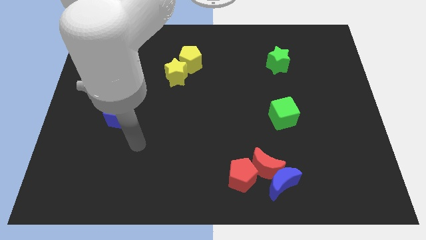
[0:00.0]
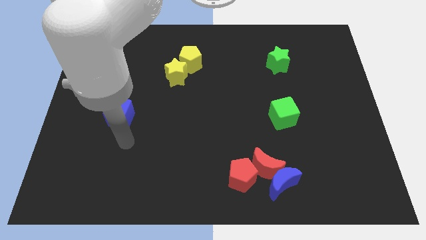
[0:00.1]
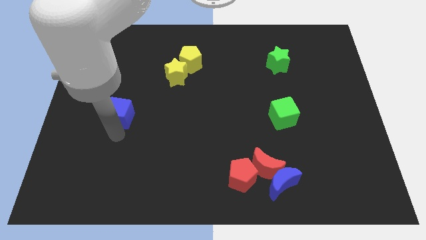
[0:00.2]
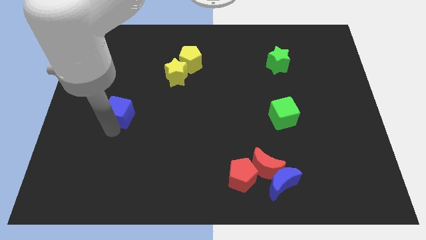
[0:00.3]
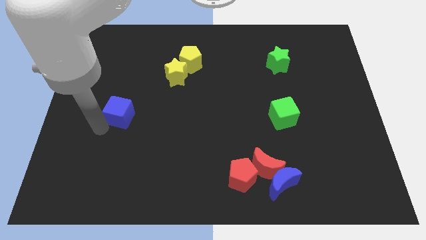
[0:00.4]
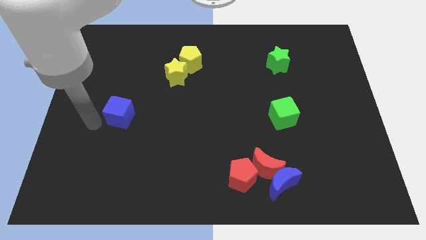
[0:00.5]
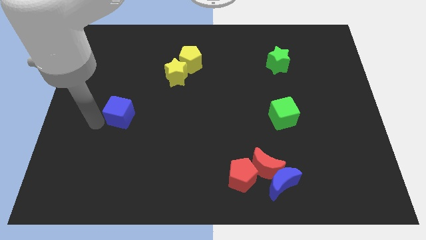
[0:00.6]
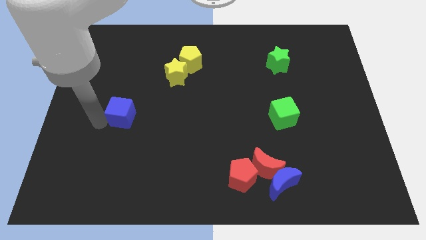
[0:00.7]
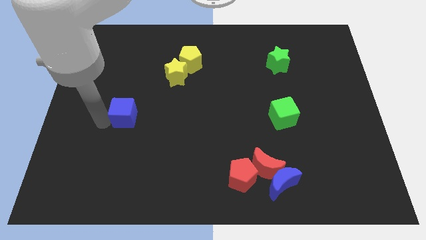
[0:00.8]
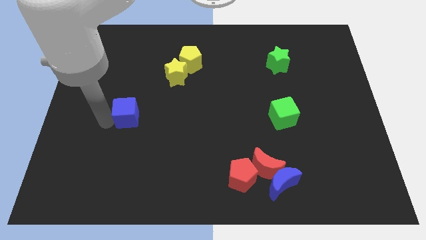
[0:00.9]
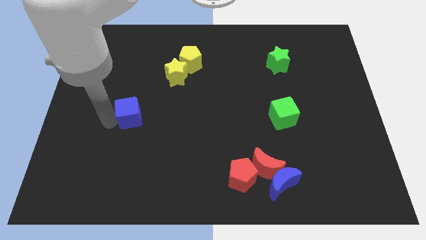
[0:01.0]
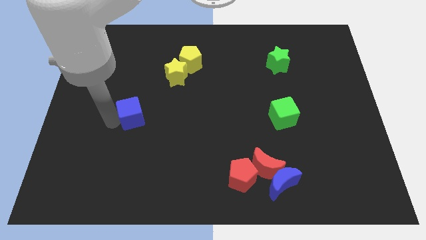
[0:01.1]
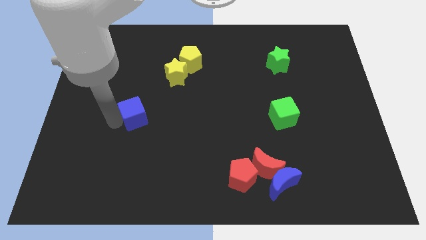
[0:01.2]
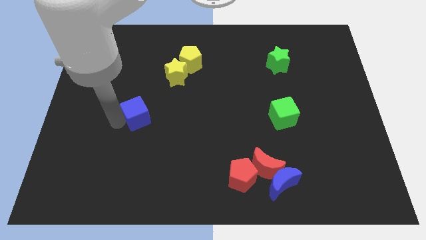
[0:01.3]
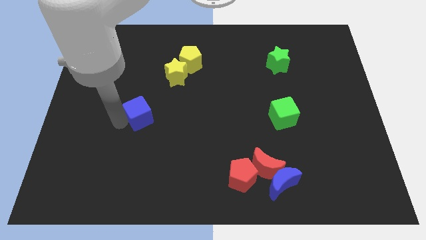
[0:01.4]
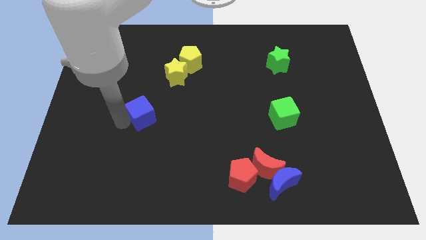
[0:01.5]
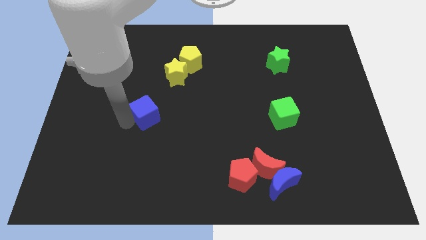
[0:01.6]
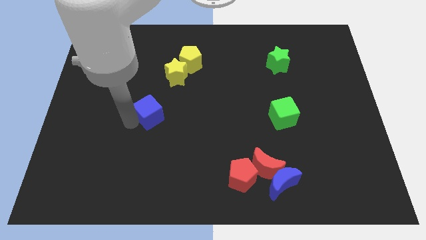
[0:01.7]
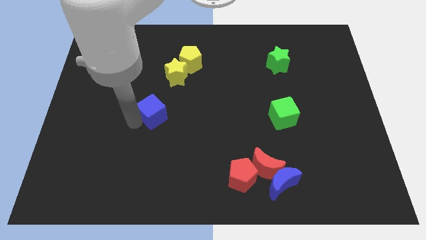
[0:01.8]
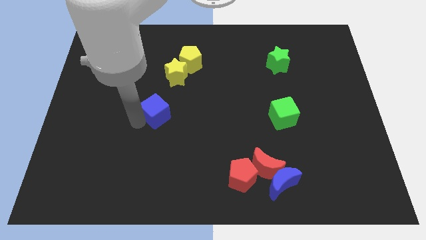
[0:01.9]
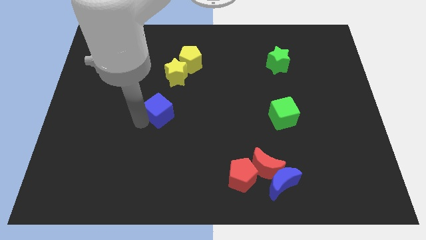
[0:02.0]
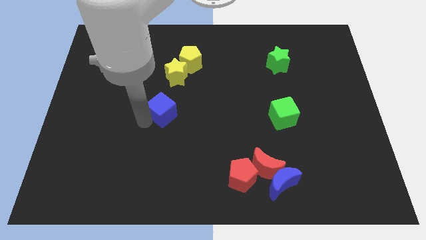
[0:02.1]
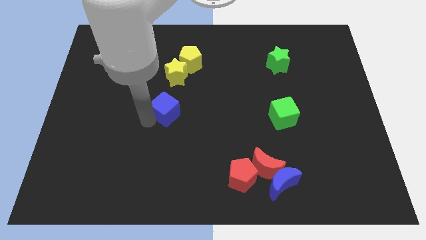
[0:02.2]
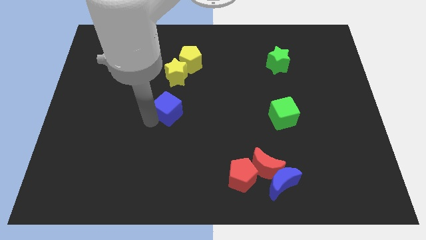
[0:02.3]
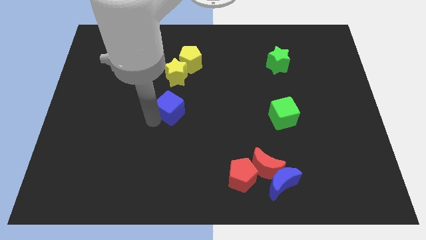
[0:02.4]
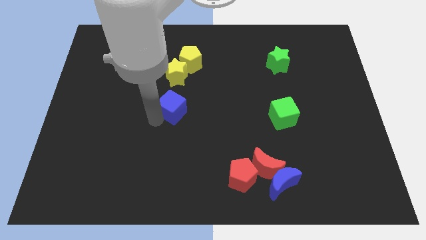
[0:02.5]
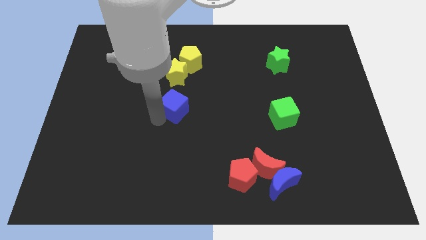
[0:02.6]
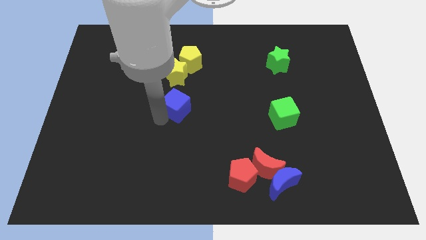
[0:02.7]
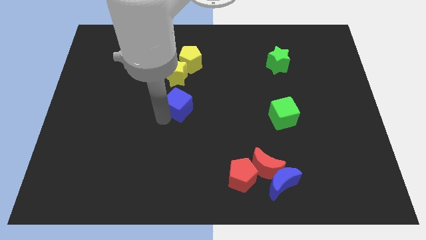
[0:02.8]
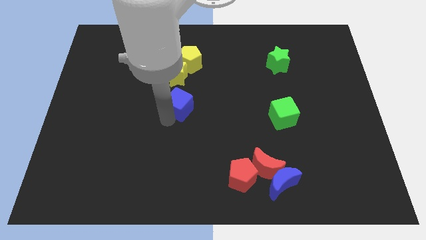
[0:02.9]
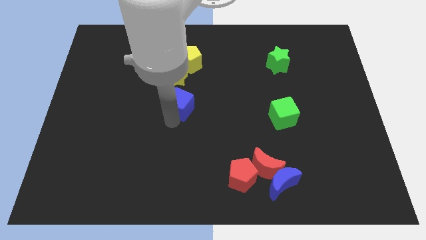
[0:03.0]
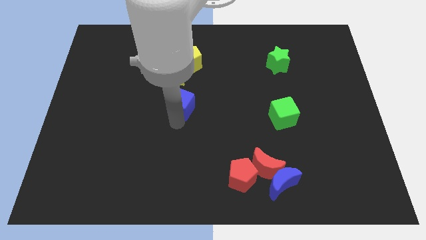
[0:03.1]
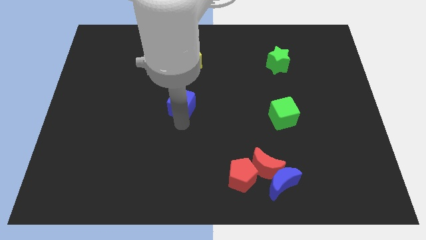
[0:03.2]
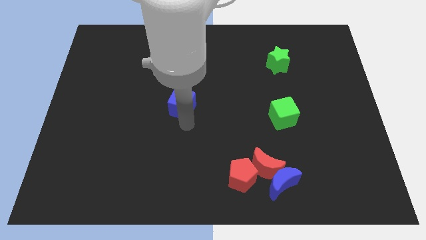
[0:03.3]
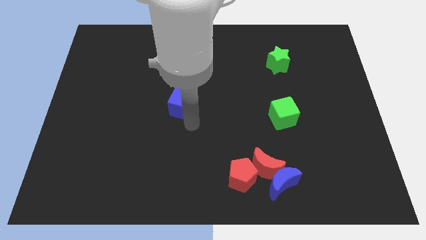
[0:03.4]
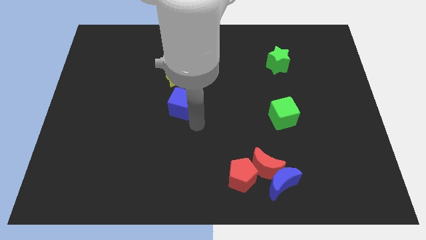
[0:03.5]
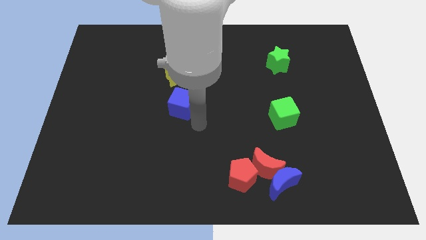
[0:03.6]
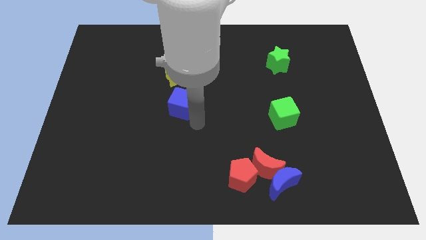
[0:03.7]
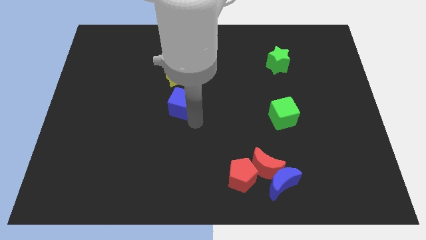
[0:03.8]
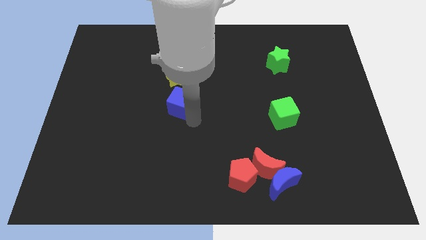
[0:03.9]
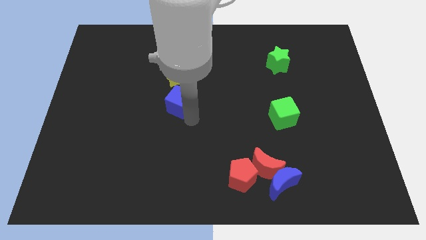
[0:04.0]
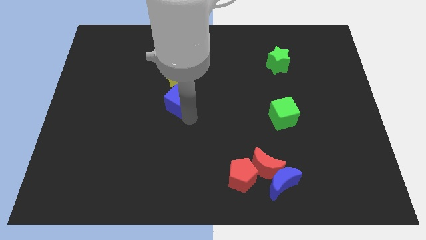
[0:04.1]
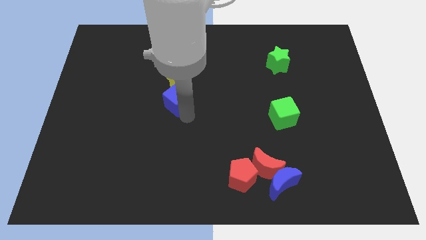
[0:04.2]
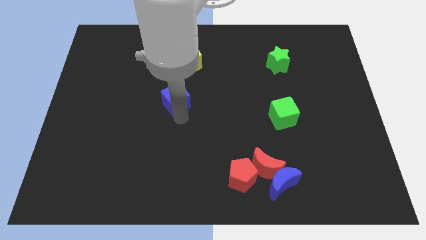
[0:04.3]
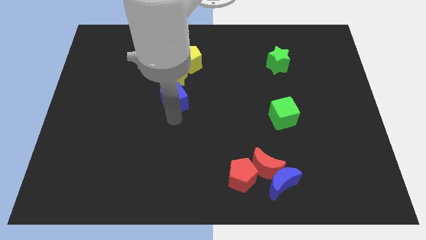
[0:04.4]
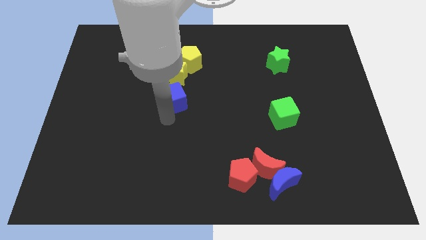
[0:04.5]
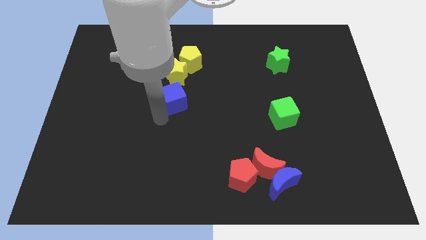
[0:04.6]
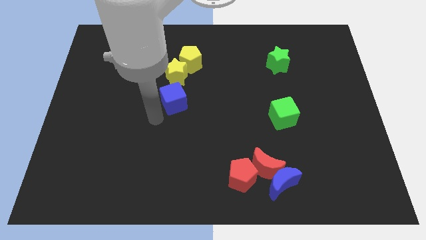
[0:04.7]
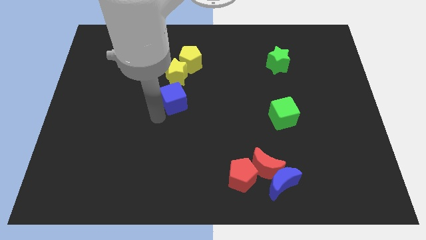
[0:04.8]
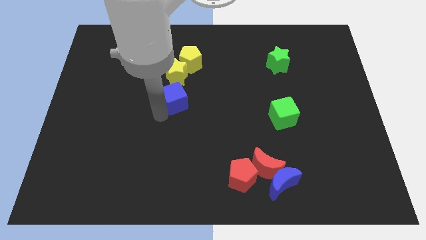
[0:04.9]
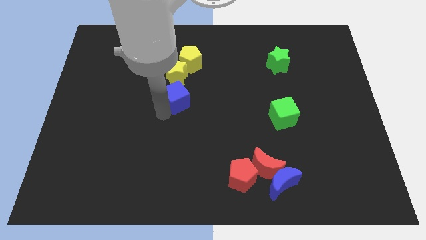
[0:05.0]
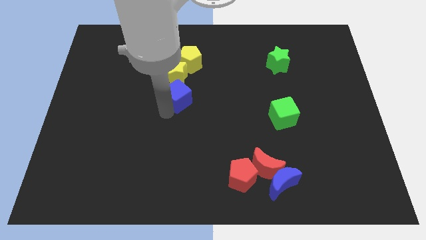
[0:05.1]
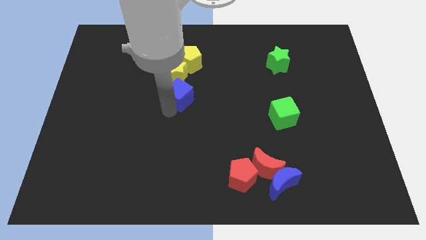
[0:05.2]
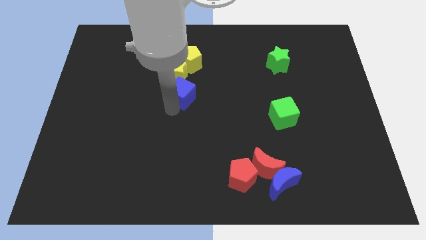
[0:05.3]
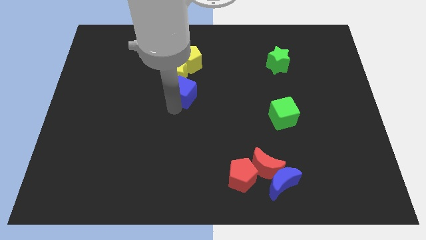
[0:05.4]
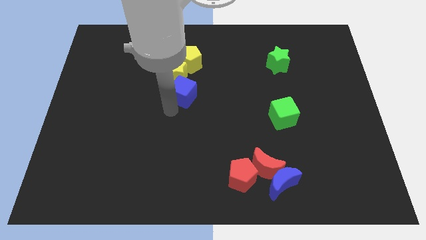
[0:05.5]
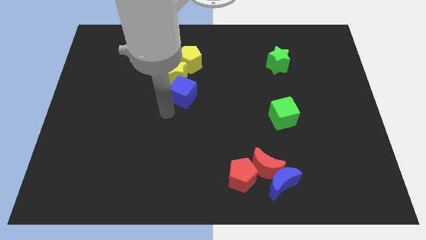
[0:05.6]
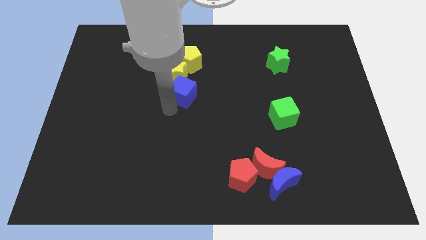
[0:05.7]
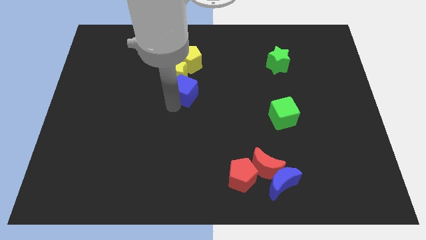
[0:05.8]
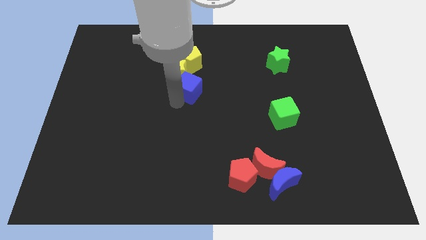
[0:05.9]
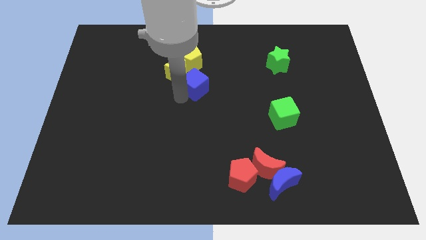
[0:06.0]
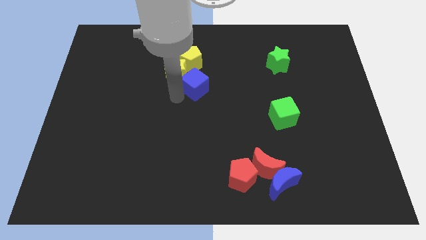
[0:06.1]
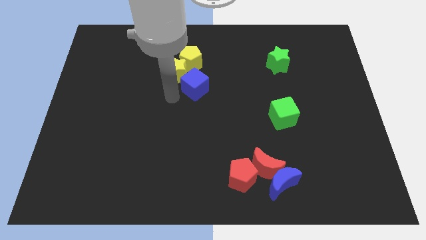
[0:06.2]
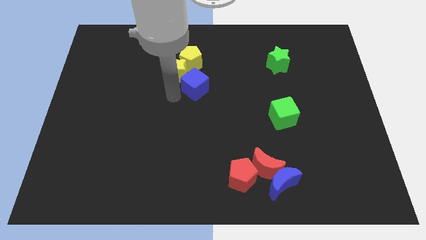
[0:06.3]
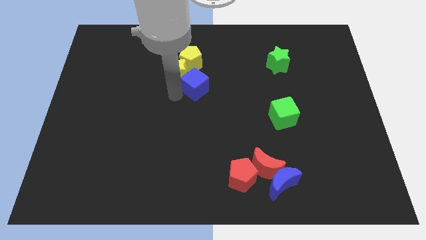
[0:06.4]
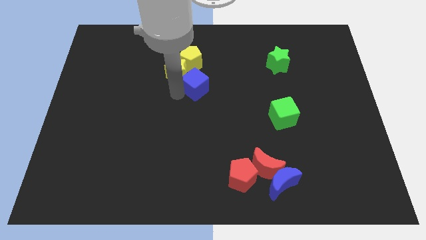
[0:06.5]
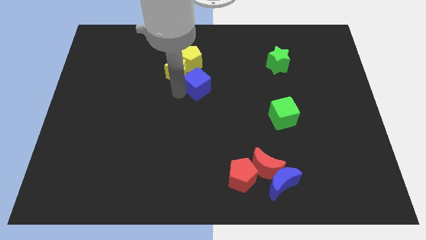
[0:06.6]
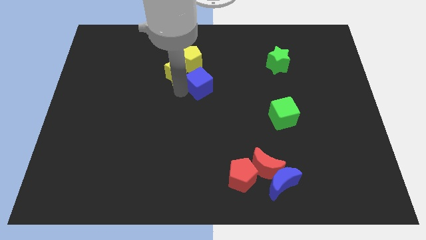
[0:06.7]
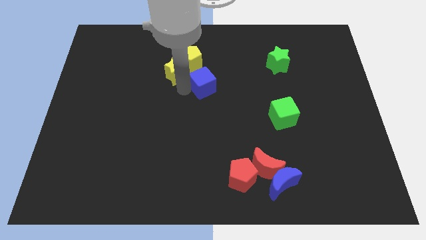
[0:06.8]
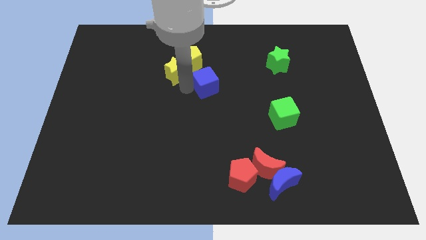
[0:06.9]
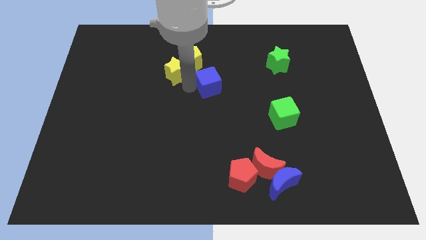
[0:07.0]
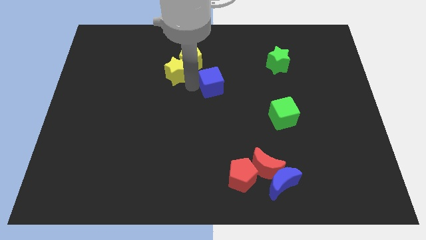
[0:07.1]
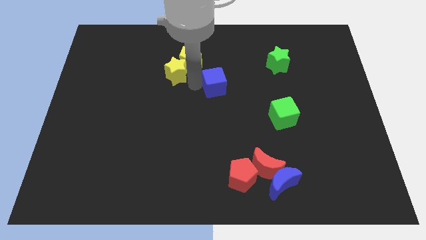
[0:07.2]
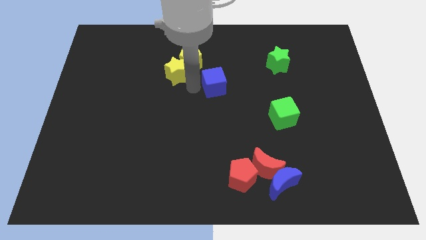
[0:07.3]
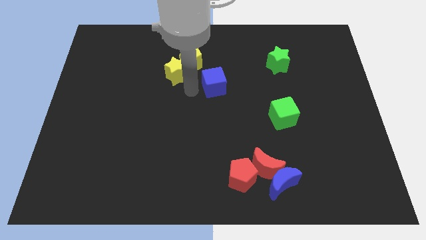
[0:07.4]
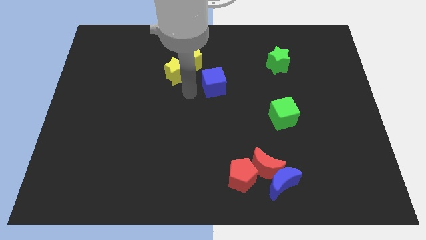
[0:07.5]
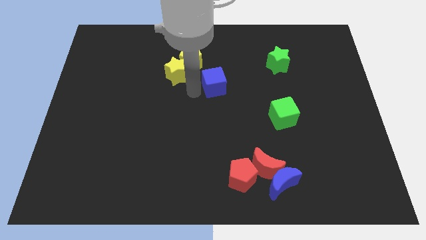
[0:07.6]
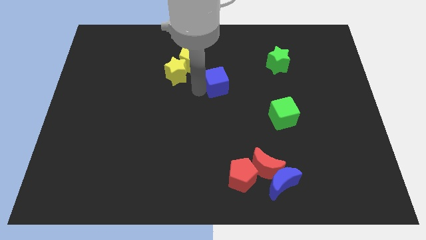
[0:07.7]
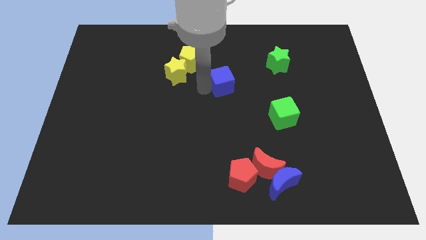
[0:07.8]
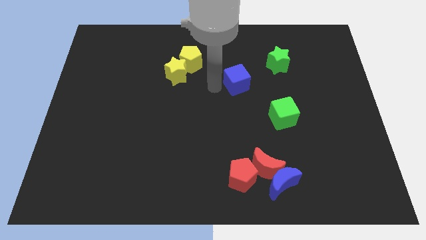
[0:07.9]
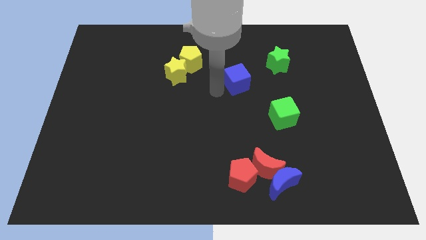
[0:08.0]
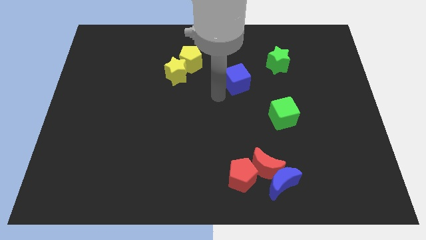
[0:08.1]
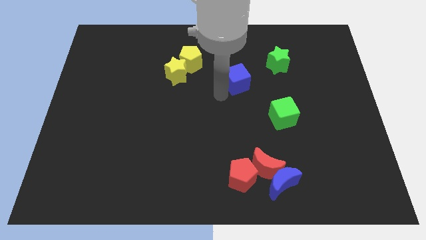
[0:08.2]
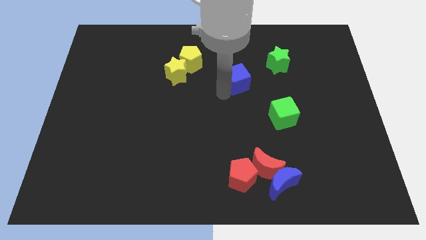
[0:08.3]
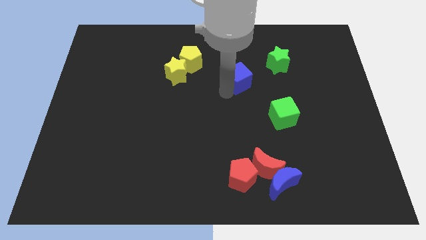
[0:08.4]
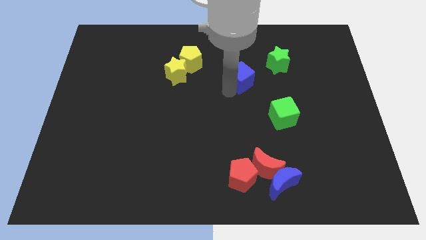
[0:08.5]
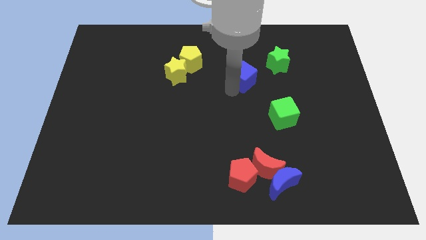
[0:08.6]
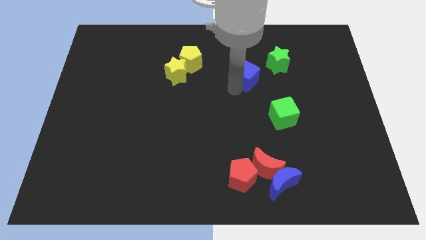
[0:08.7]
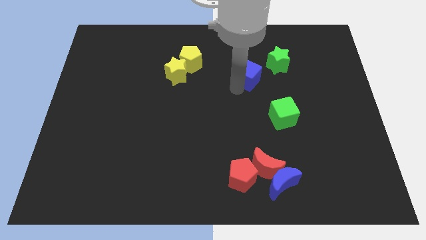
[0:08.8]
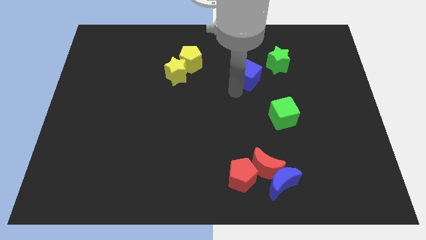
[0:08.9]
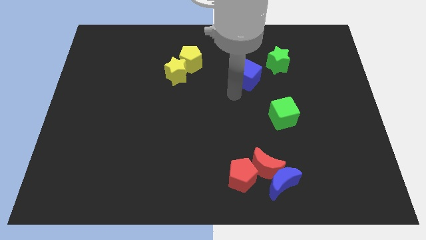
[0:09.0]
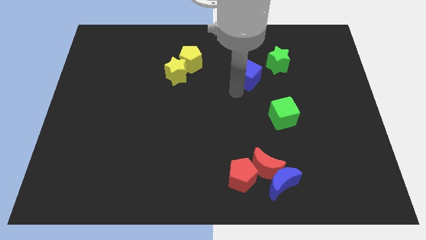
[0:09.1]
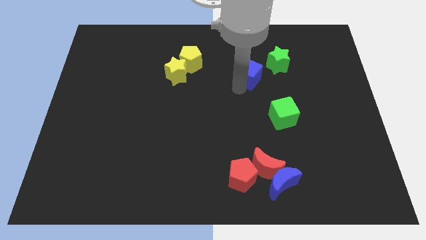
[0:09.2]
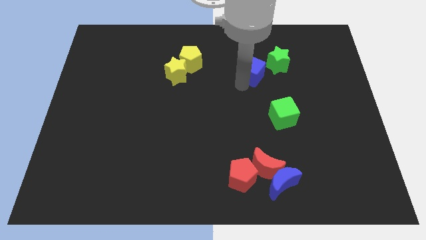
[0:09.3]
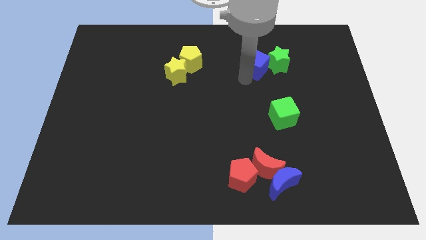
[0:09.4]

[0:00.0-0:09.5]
slide the blue cube next to the green star
